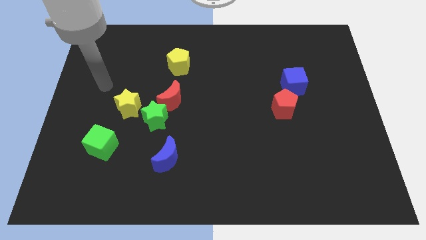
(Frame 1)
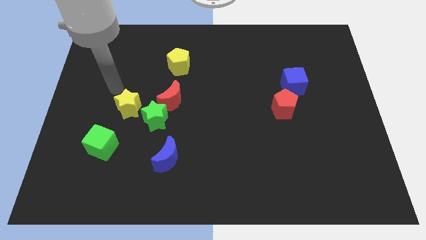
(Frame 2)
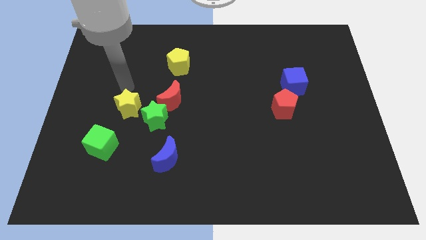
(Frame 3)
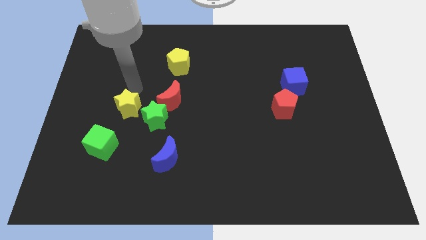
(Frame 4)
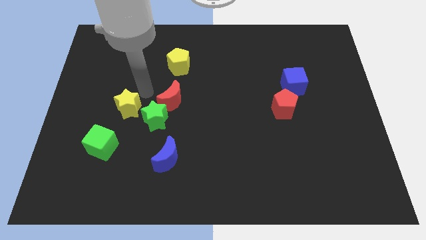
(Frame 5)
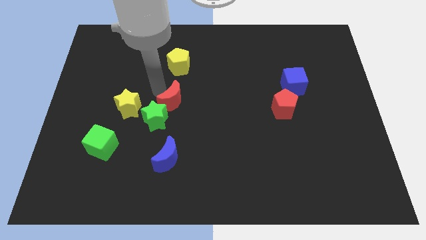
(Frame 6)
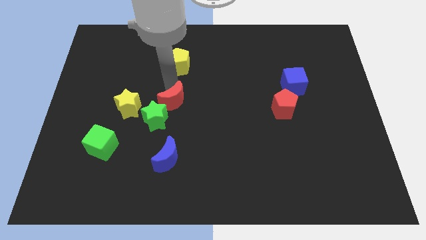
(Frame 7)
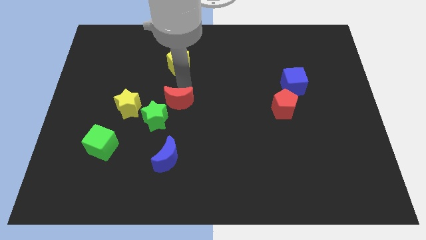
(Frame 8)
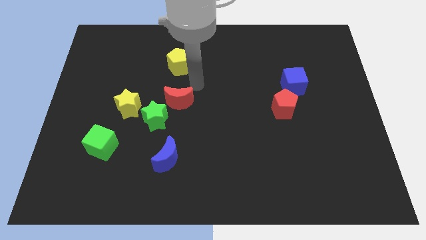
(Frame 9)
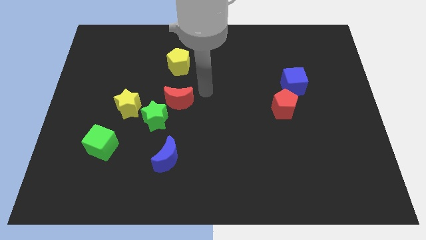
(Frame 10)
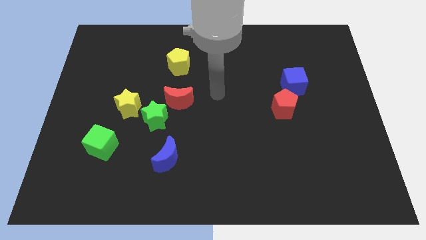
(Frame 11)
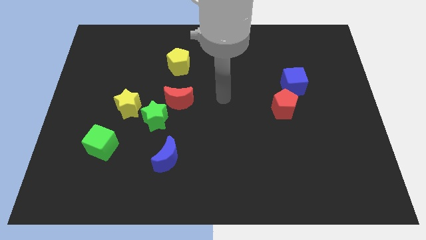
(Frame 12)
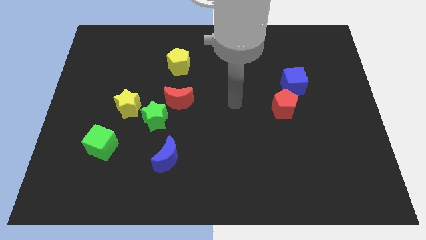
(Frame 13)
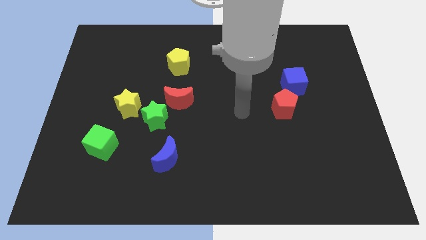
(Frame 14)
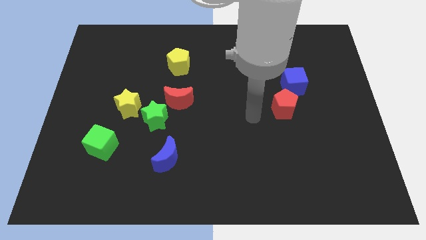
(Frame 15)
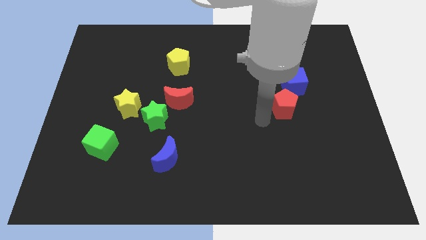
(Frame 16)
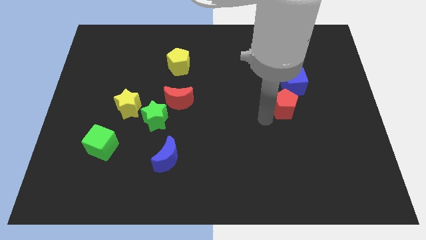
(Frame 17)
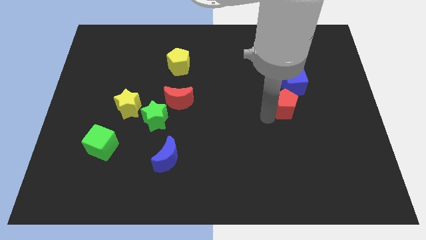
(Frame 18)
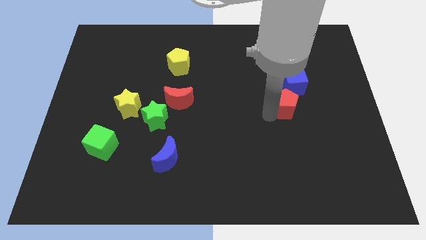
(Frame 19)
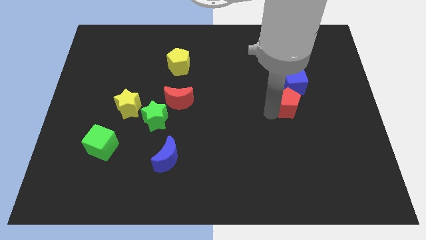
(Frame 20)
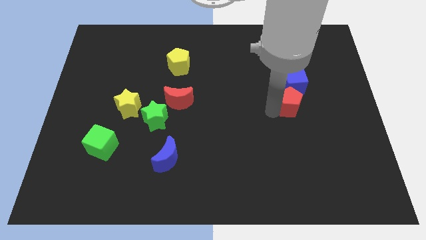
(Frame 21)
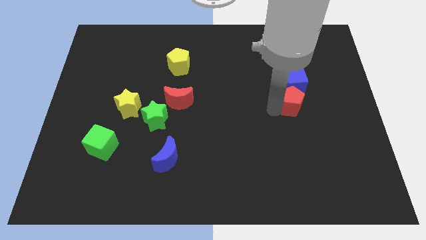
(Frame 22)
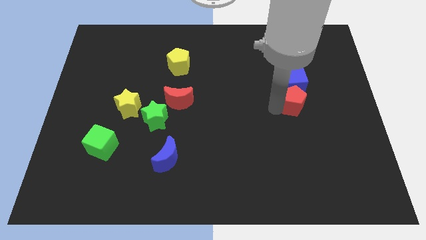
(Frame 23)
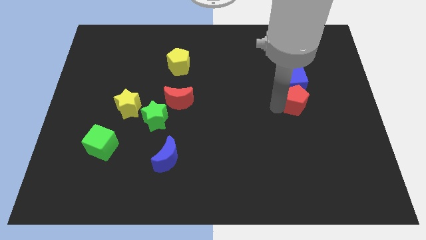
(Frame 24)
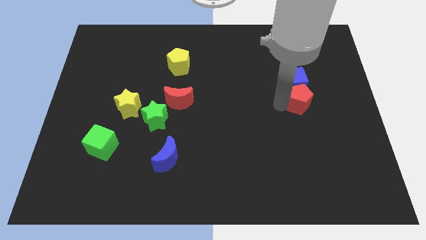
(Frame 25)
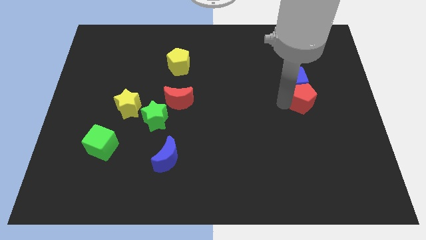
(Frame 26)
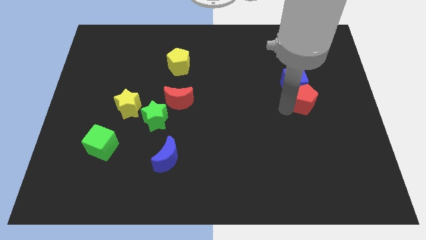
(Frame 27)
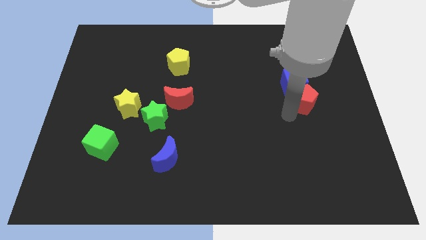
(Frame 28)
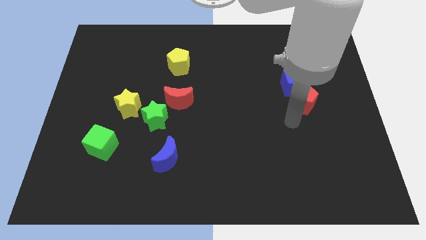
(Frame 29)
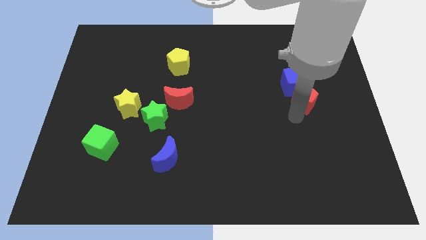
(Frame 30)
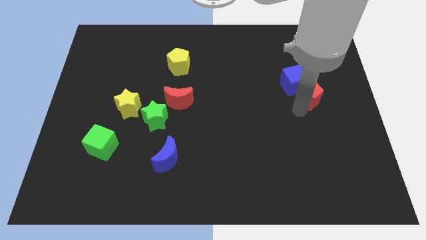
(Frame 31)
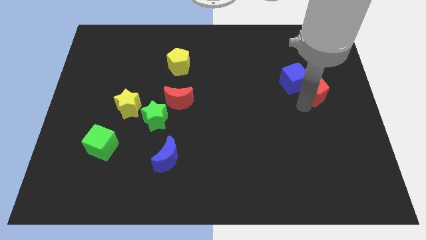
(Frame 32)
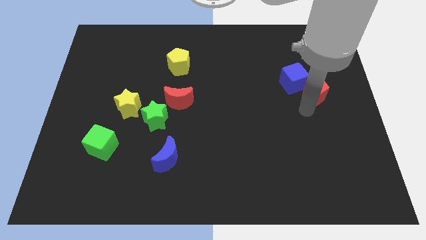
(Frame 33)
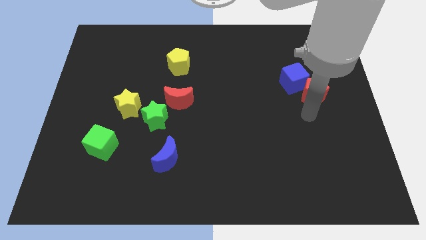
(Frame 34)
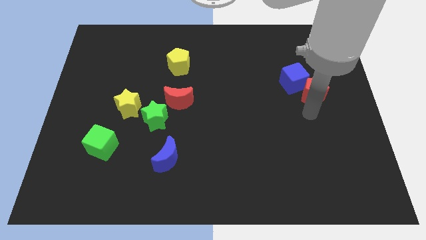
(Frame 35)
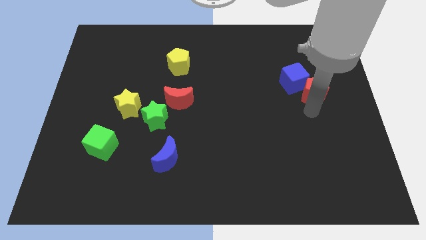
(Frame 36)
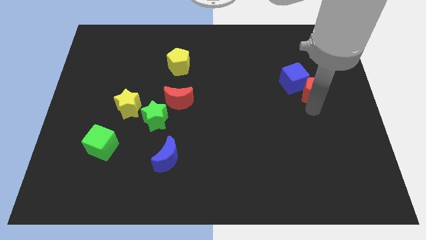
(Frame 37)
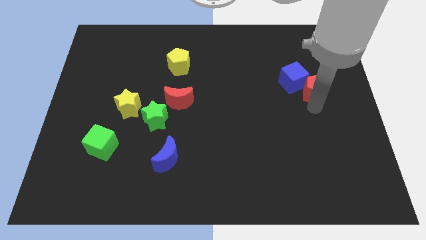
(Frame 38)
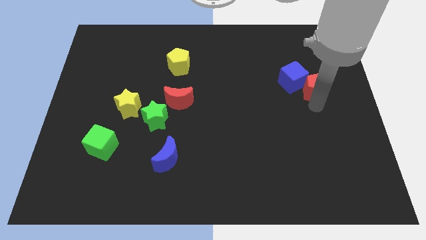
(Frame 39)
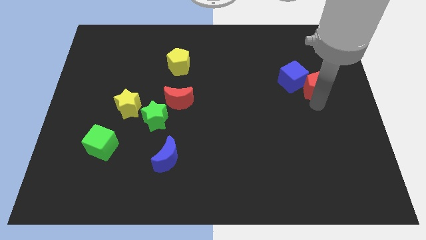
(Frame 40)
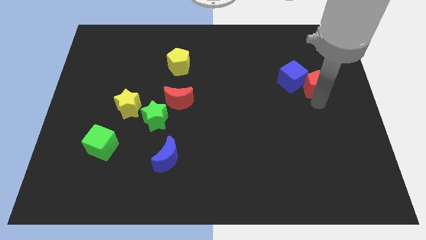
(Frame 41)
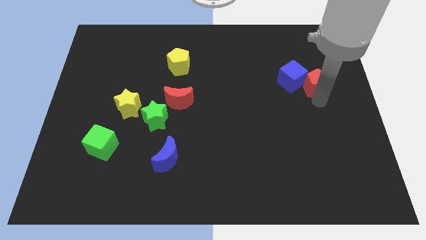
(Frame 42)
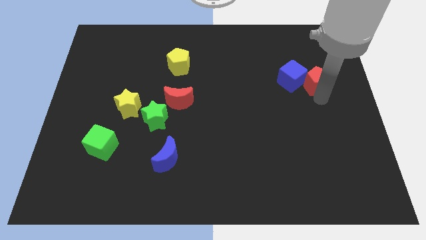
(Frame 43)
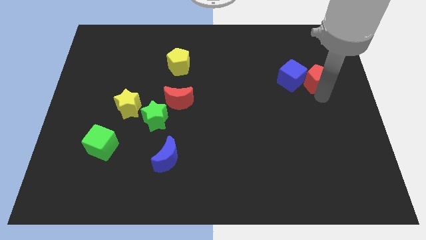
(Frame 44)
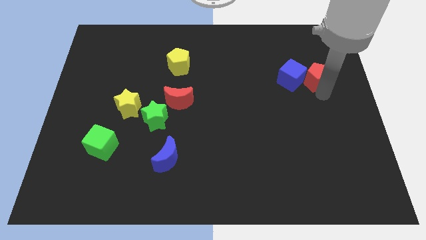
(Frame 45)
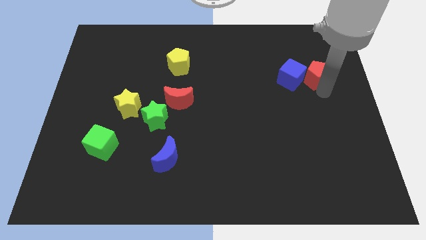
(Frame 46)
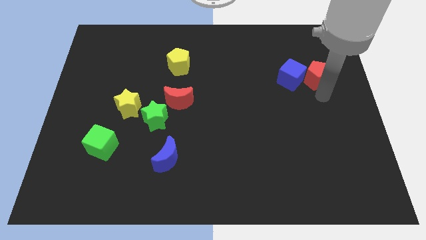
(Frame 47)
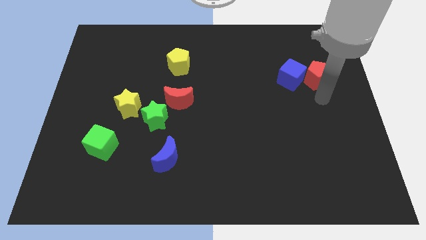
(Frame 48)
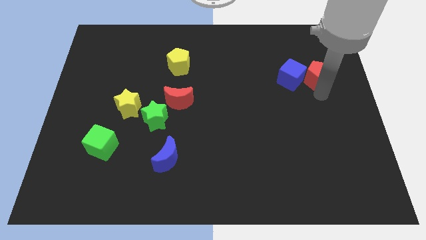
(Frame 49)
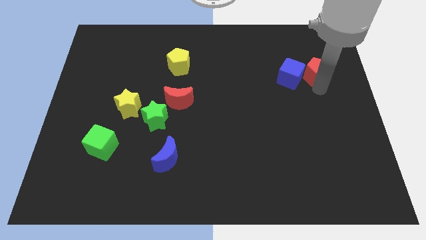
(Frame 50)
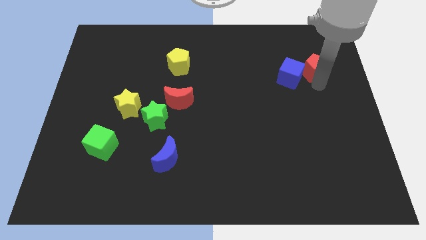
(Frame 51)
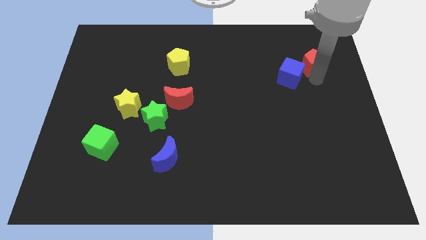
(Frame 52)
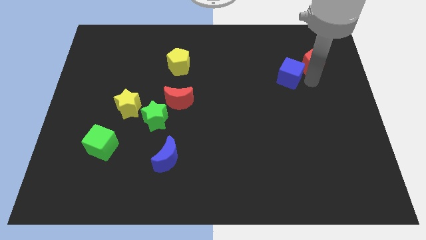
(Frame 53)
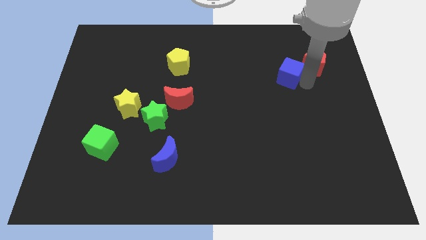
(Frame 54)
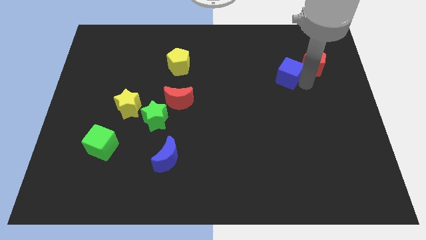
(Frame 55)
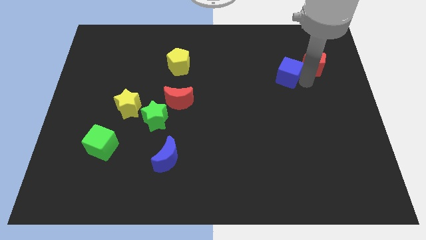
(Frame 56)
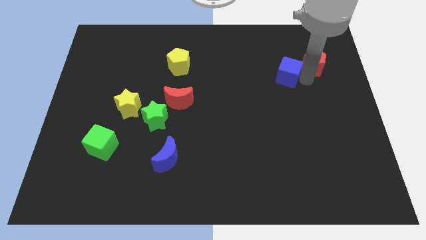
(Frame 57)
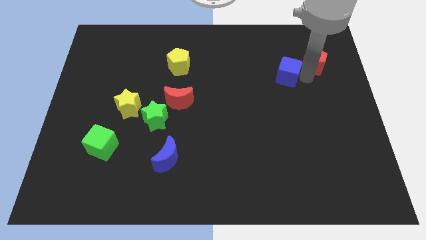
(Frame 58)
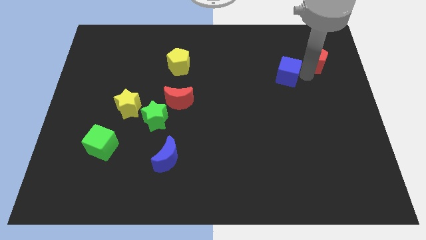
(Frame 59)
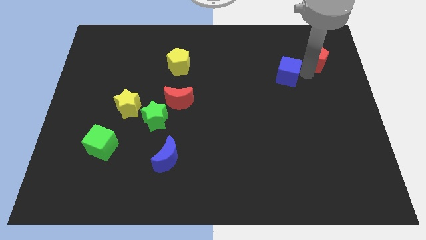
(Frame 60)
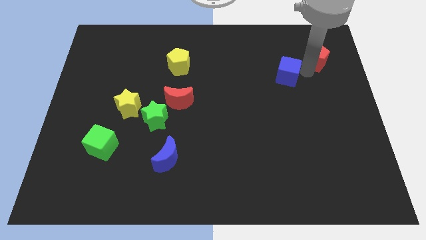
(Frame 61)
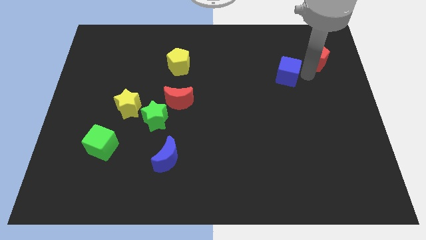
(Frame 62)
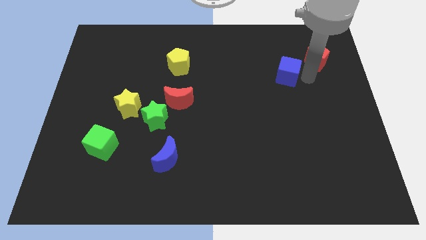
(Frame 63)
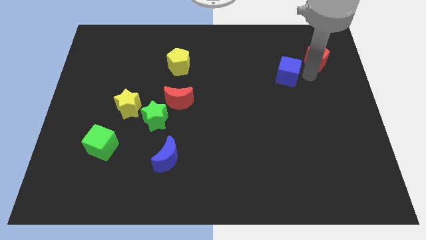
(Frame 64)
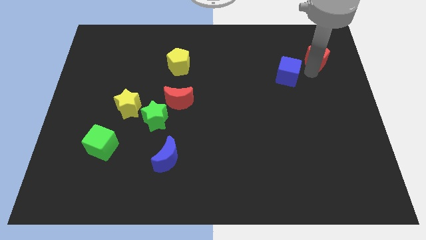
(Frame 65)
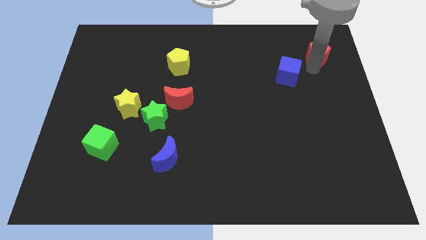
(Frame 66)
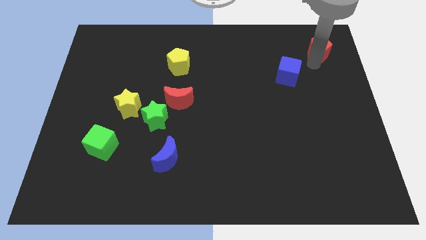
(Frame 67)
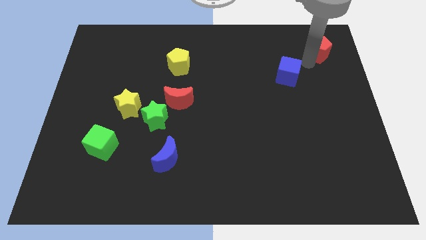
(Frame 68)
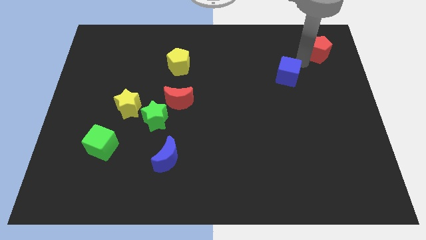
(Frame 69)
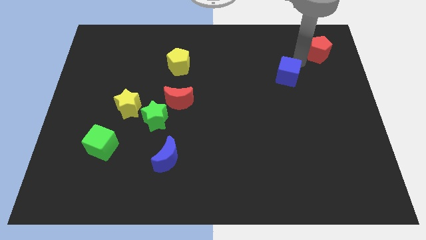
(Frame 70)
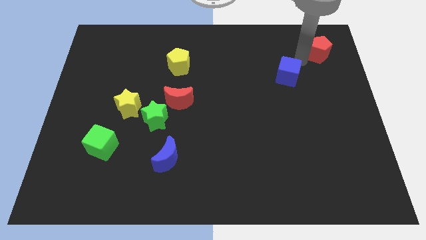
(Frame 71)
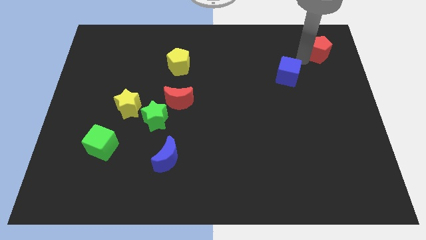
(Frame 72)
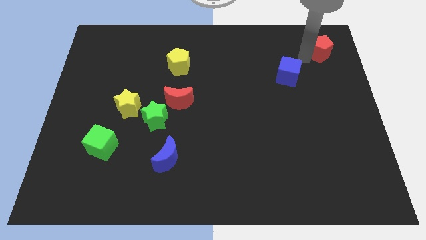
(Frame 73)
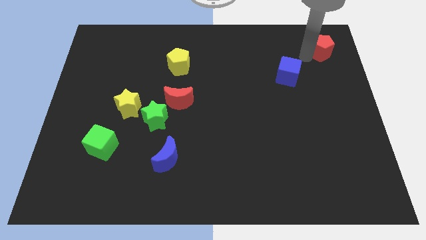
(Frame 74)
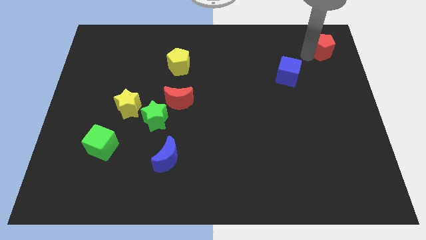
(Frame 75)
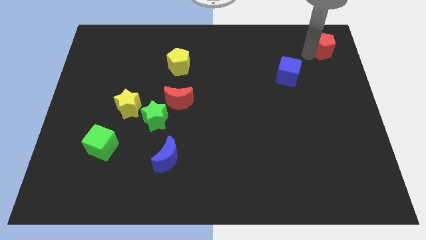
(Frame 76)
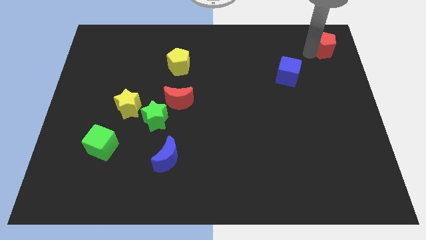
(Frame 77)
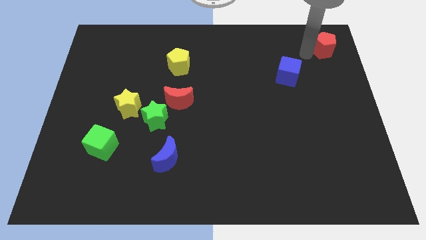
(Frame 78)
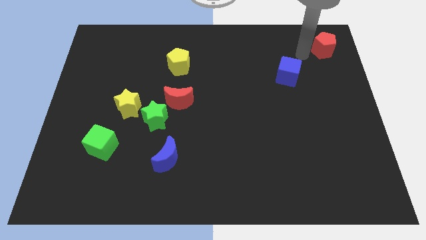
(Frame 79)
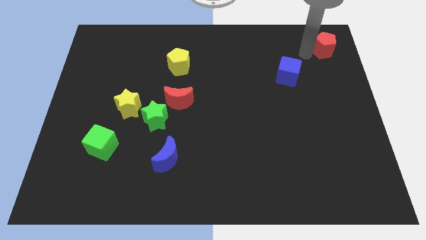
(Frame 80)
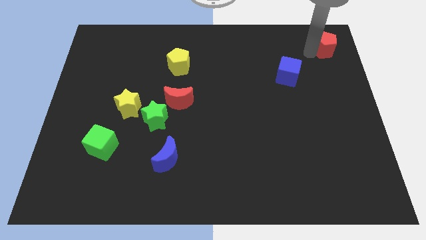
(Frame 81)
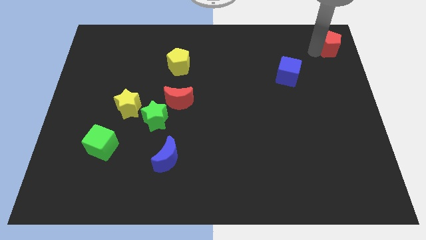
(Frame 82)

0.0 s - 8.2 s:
put the red pentagon to the top right
